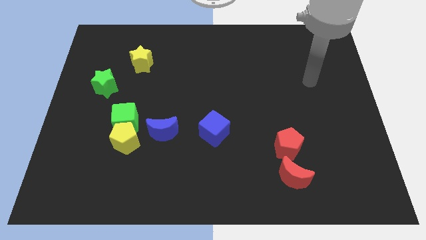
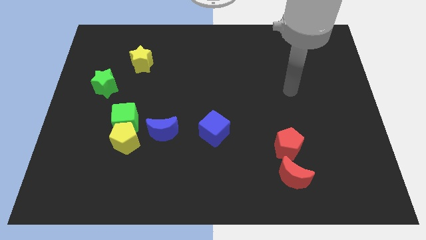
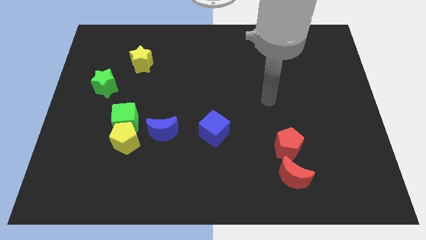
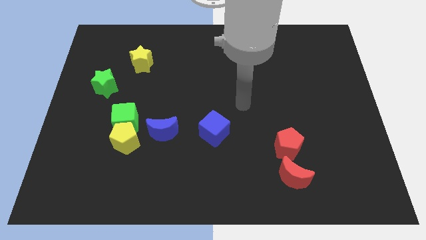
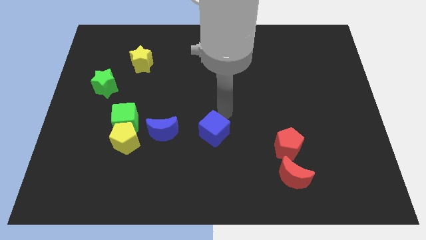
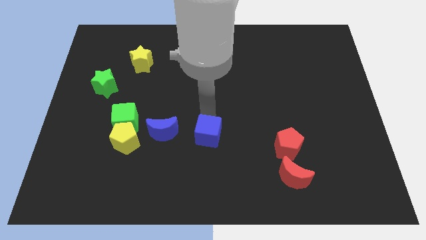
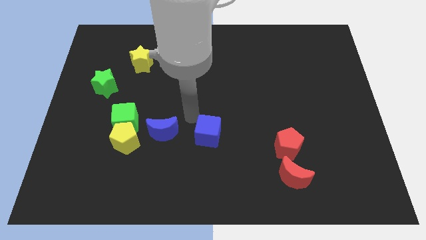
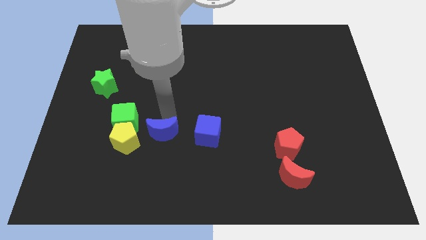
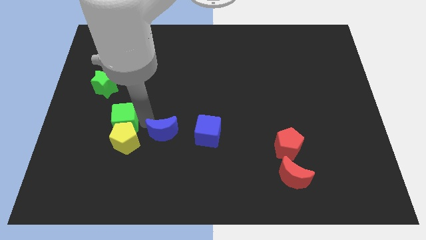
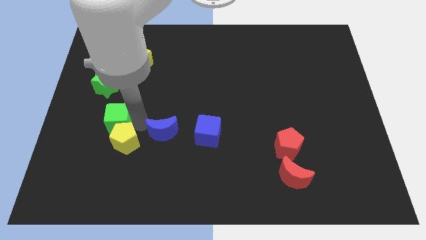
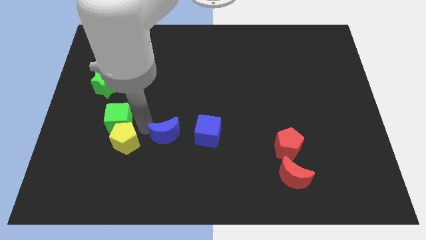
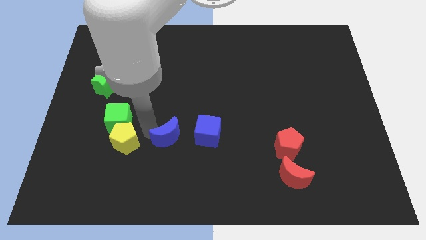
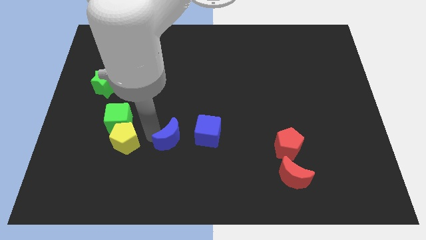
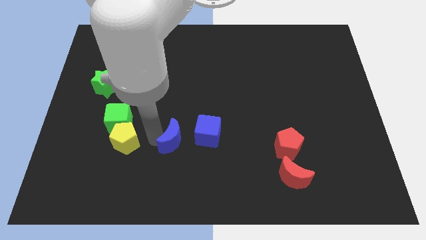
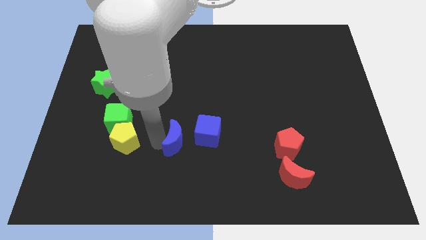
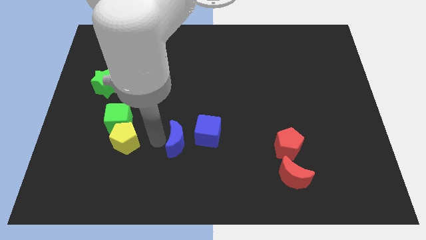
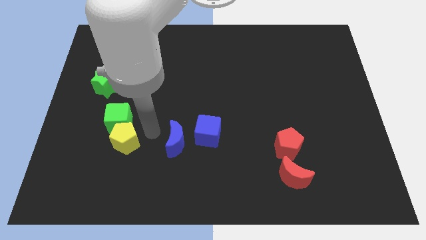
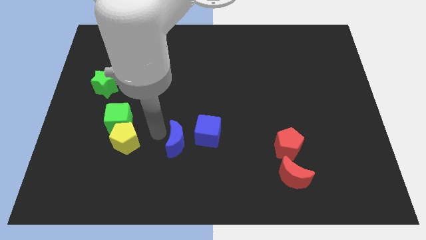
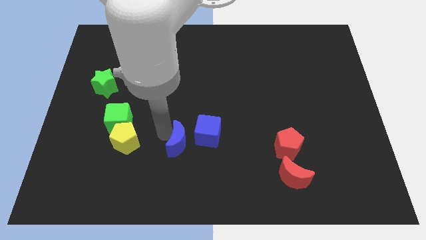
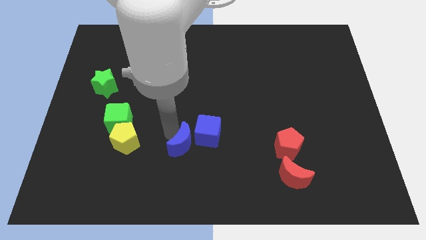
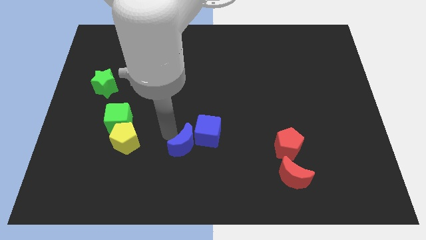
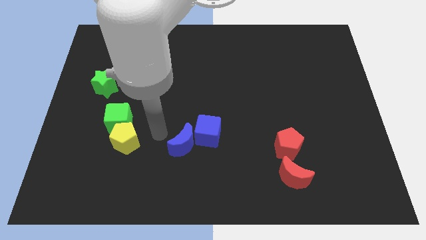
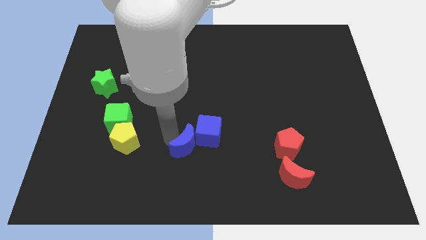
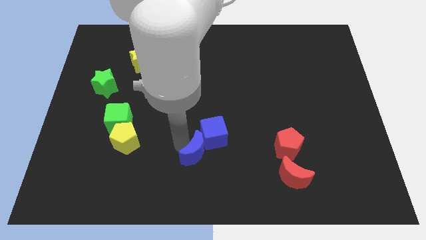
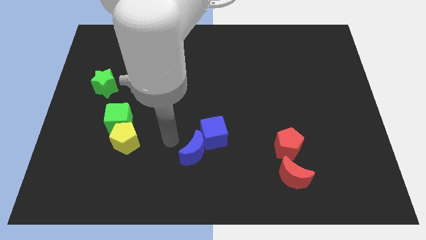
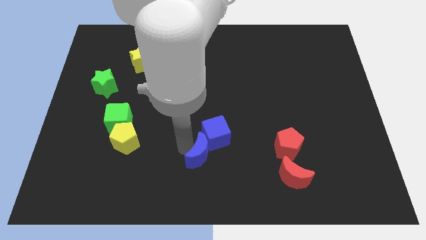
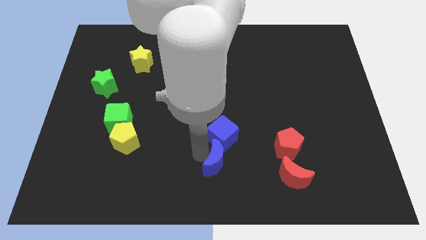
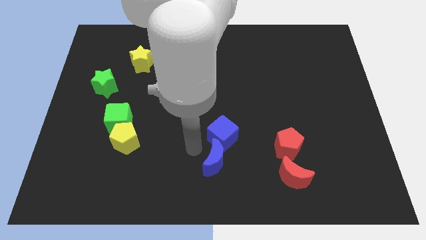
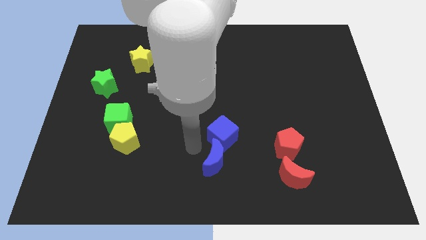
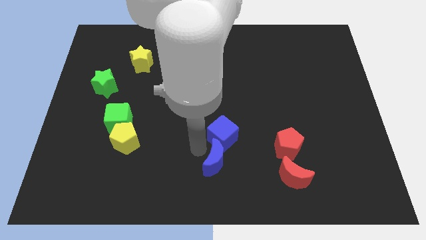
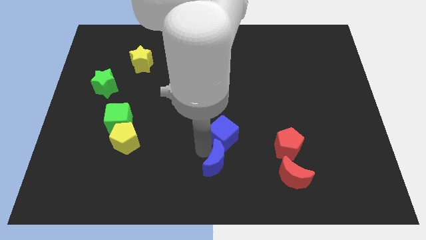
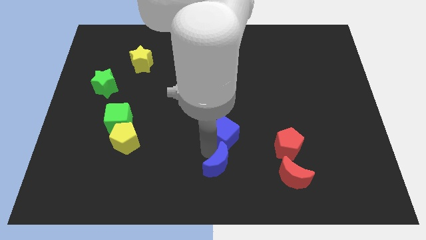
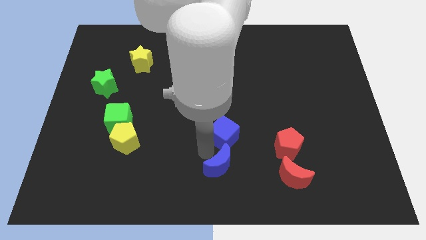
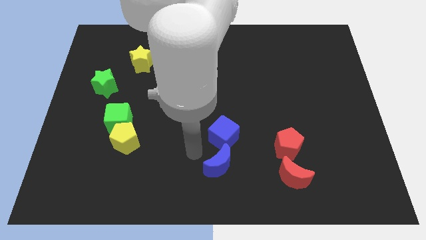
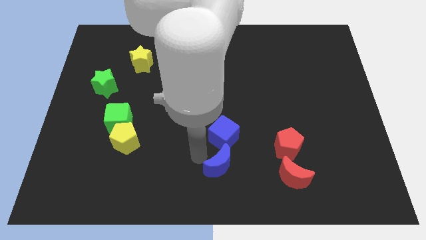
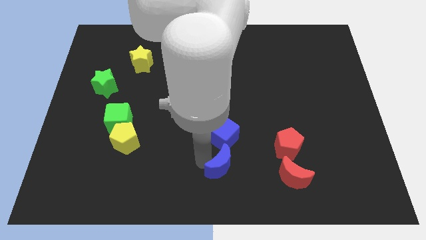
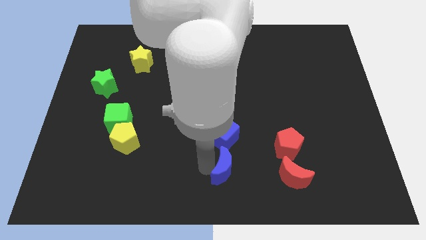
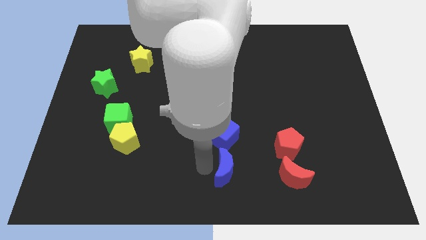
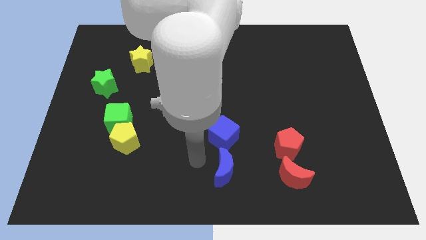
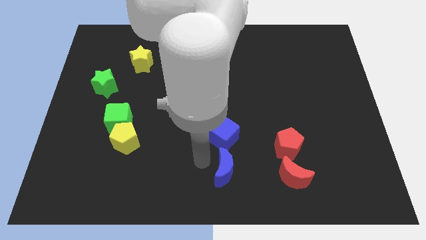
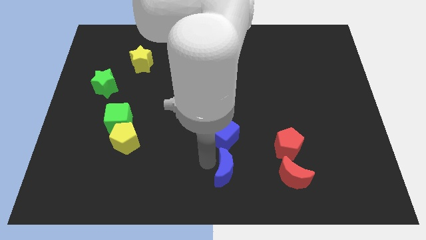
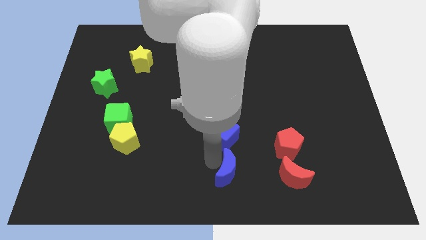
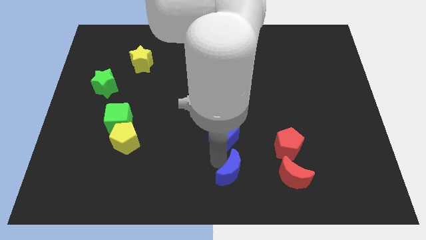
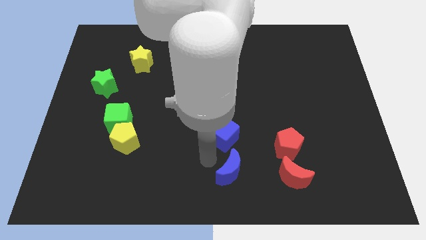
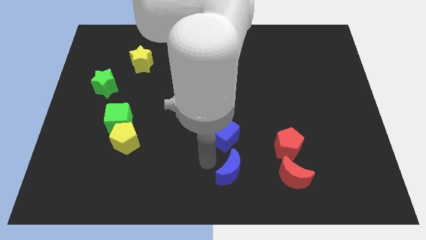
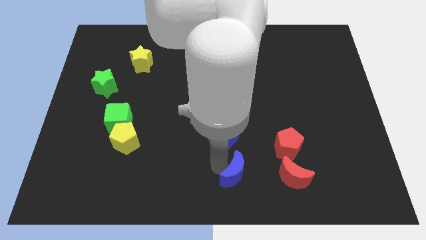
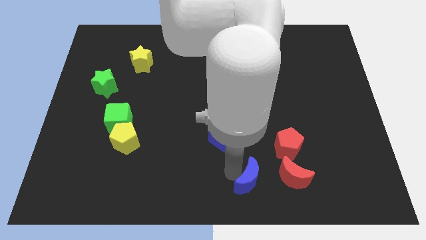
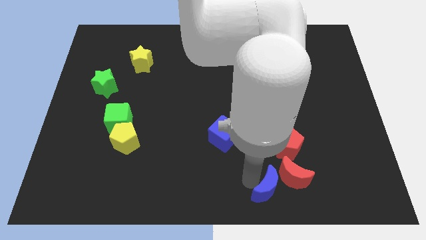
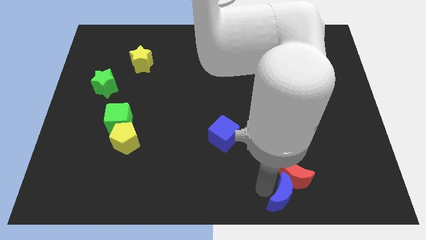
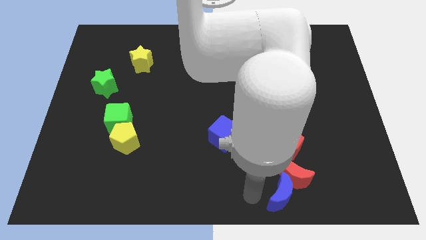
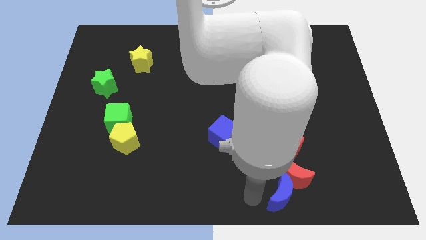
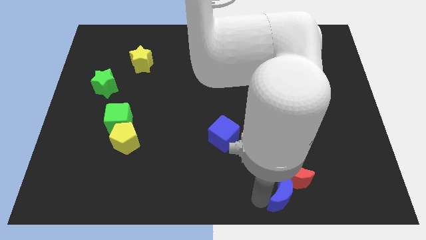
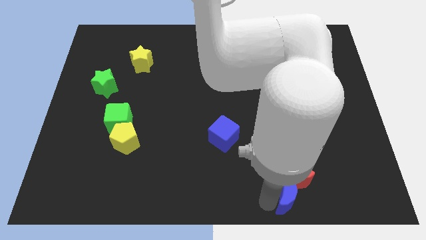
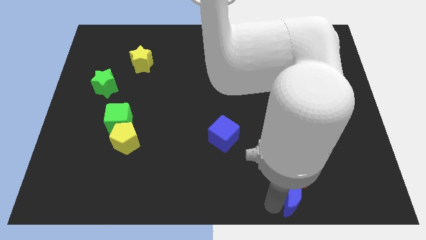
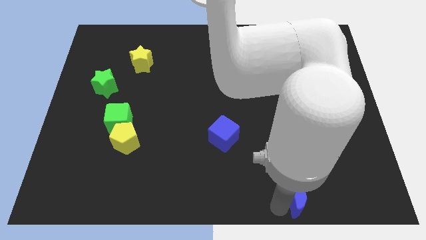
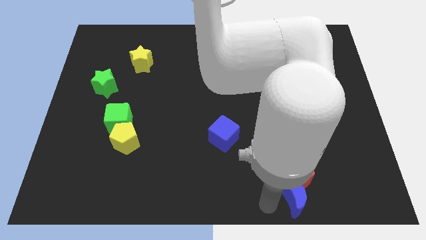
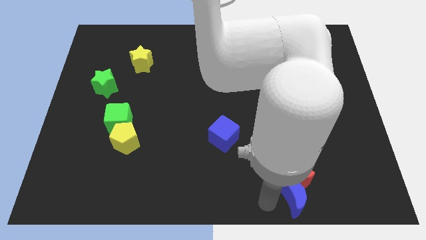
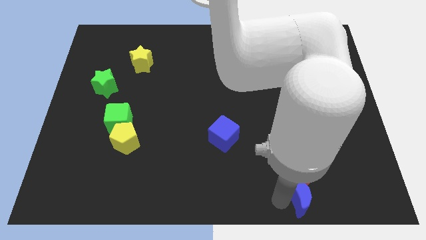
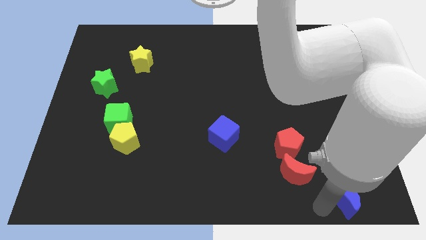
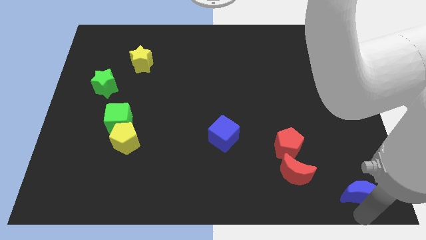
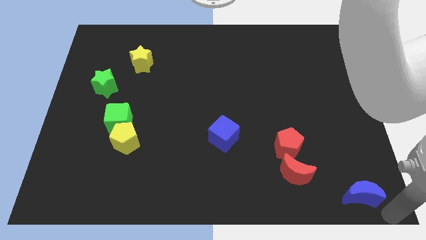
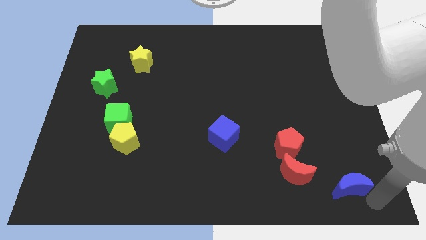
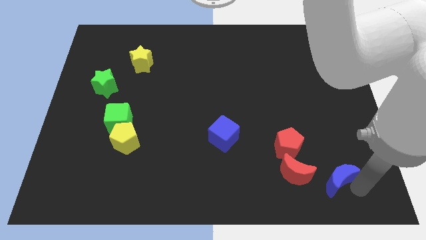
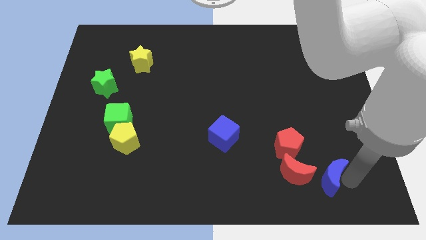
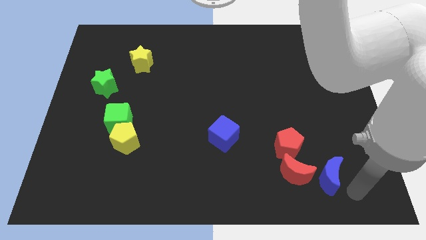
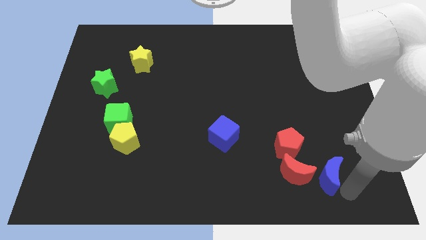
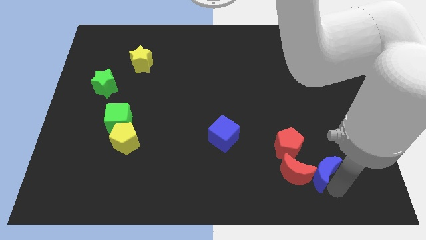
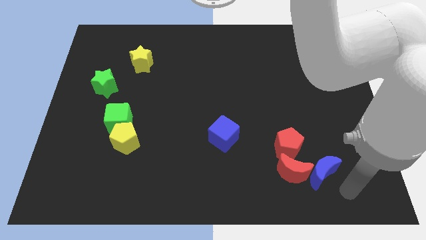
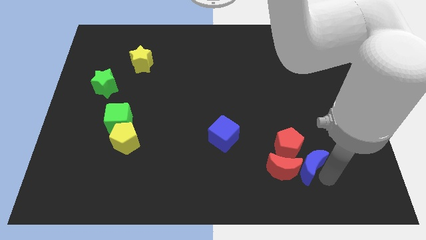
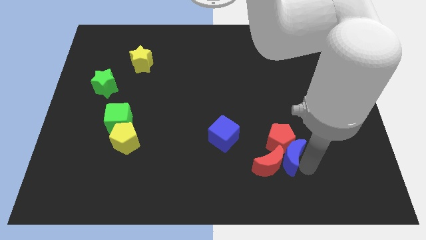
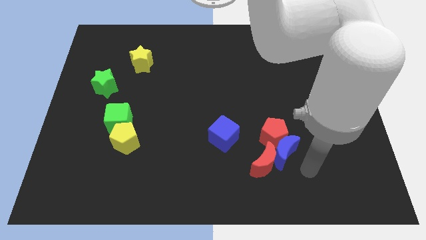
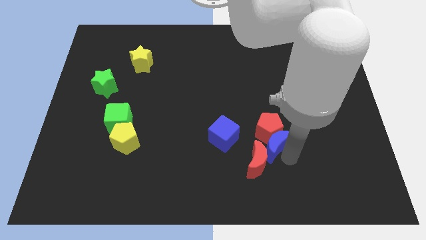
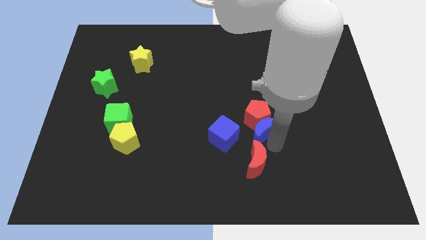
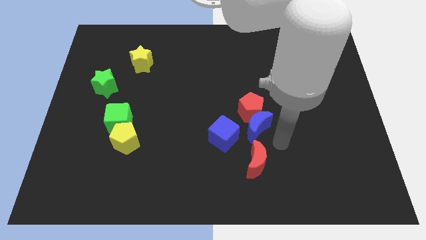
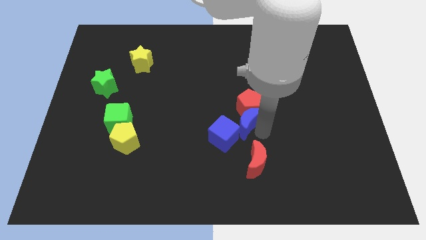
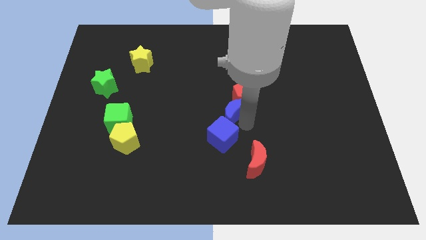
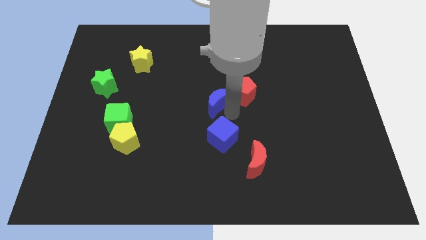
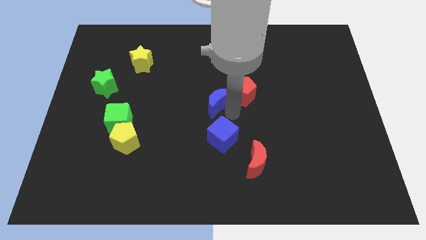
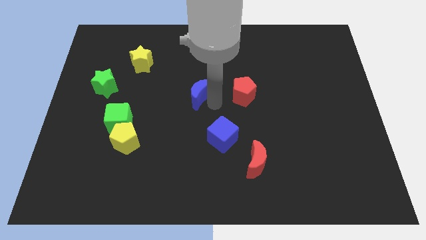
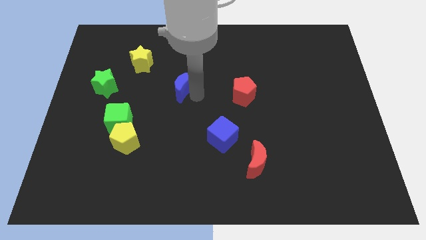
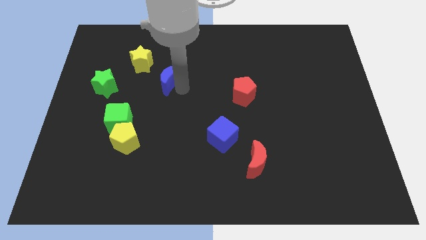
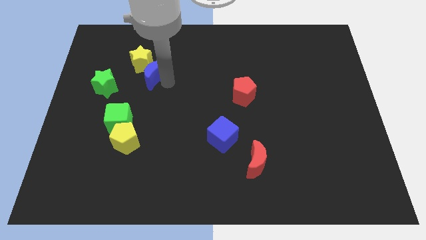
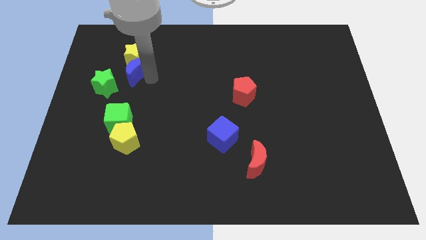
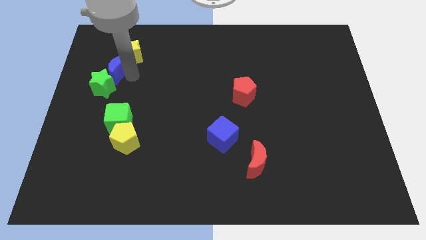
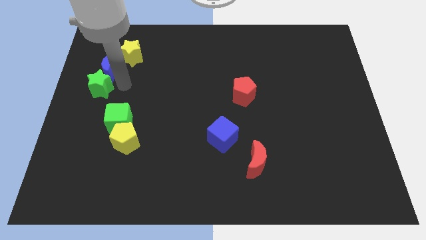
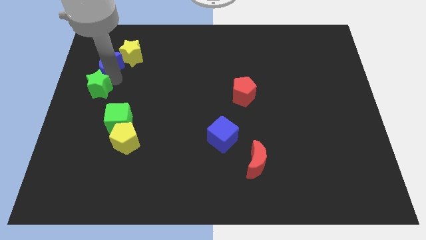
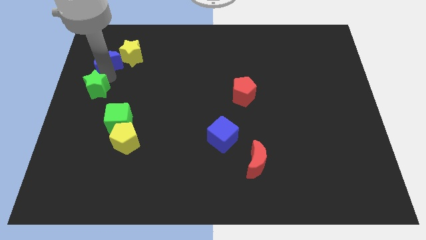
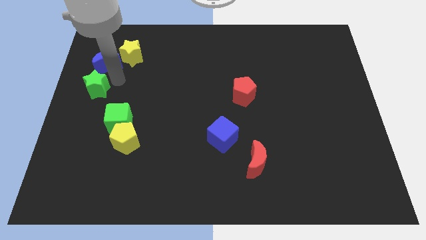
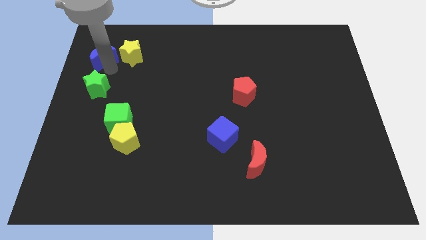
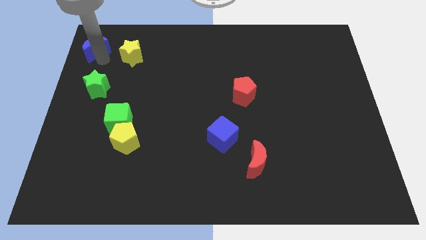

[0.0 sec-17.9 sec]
push the blue moon to the upper left corner
